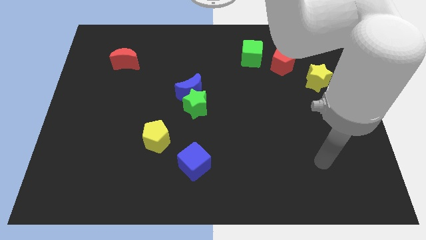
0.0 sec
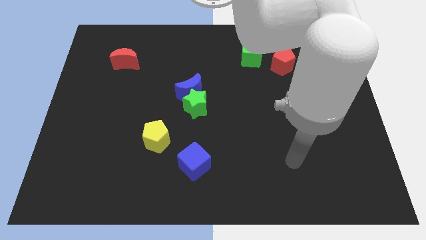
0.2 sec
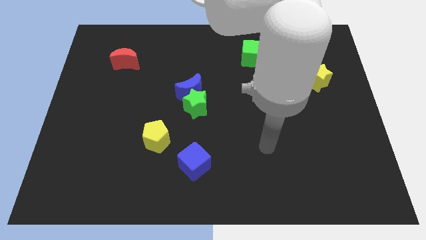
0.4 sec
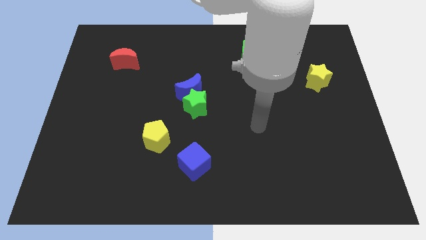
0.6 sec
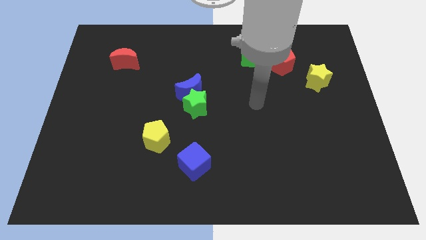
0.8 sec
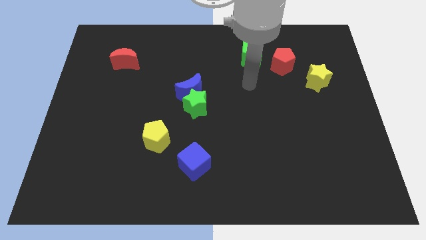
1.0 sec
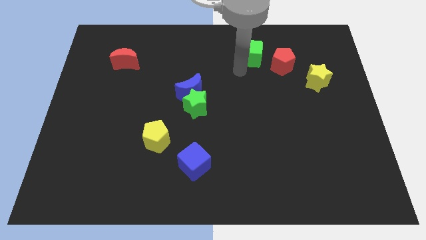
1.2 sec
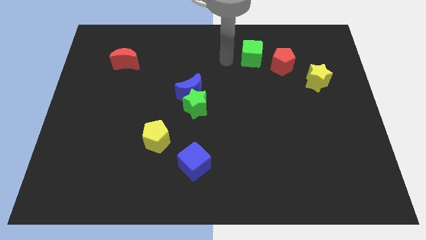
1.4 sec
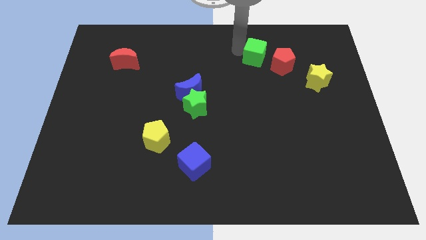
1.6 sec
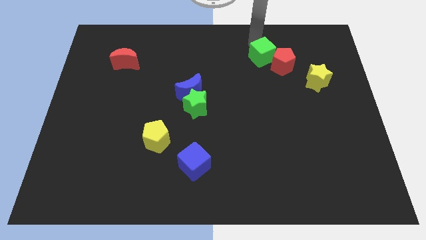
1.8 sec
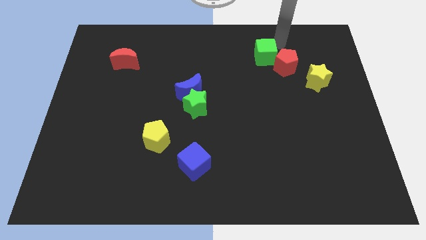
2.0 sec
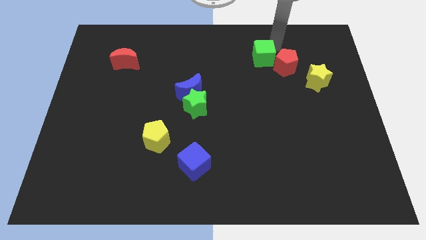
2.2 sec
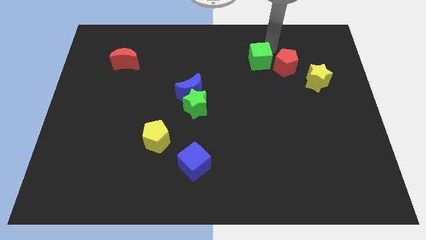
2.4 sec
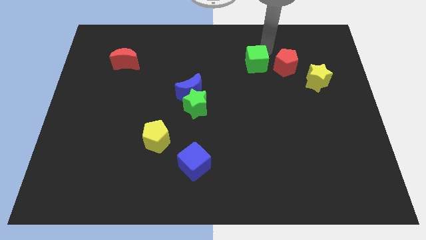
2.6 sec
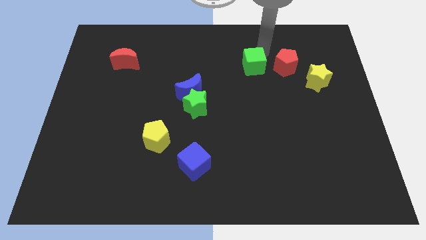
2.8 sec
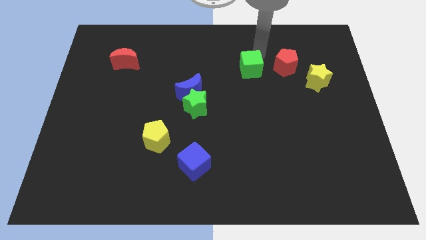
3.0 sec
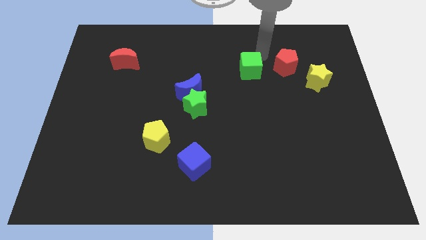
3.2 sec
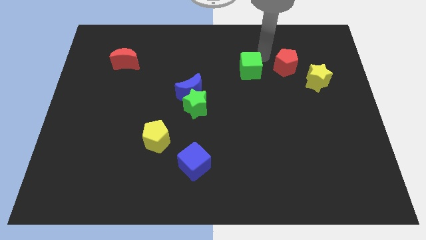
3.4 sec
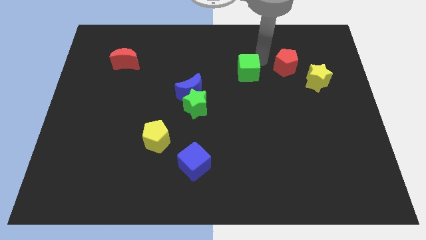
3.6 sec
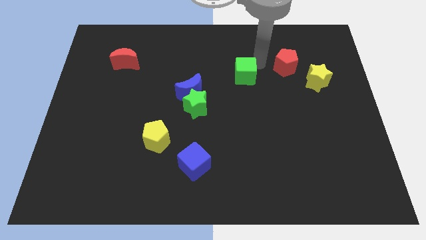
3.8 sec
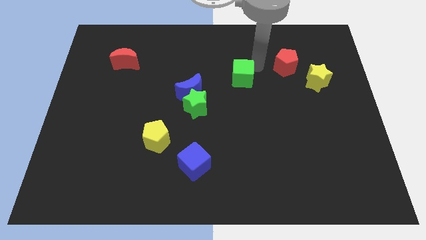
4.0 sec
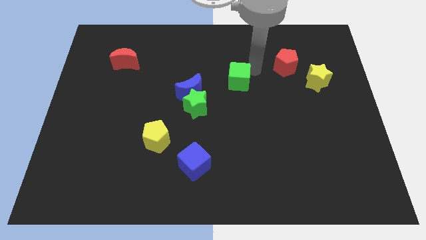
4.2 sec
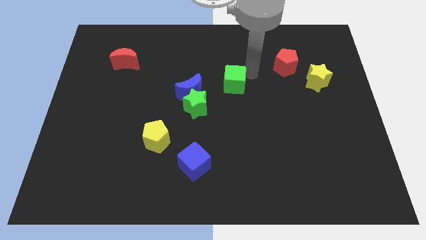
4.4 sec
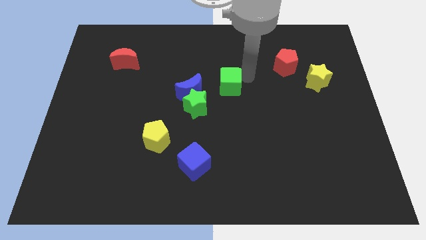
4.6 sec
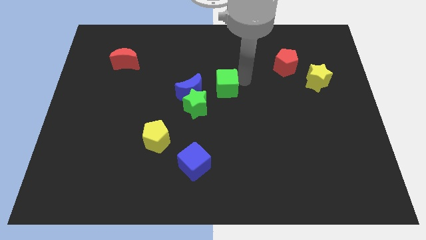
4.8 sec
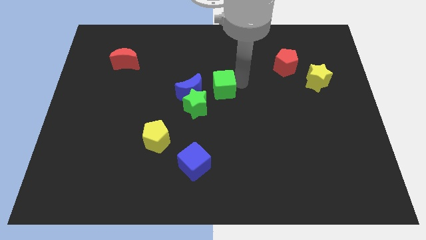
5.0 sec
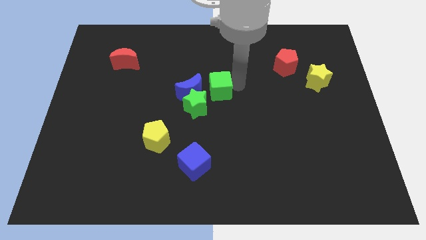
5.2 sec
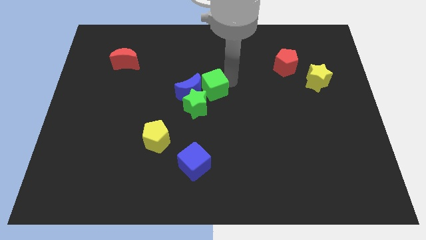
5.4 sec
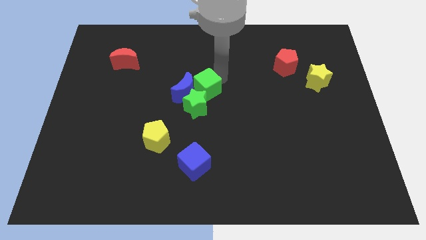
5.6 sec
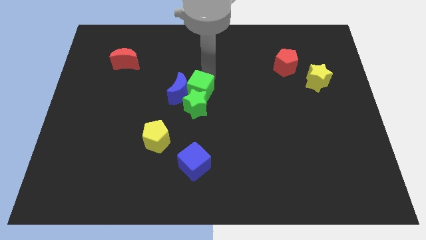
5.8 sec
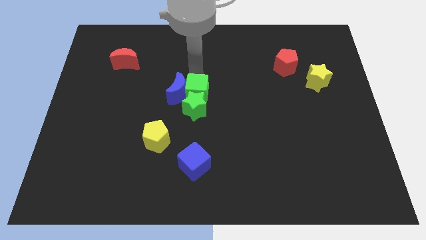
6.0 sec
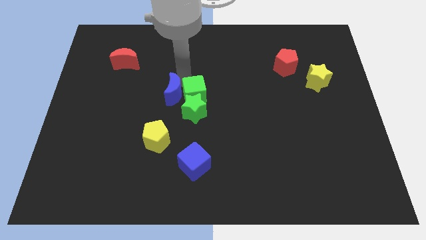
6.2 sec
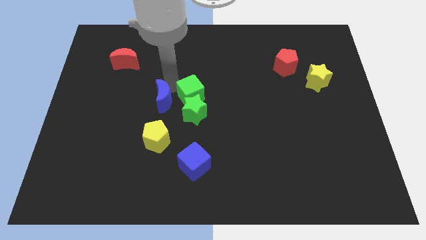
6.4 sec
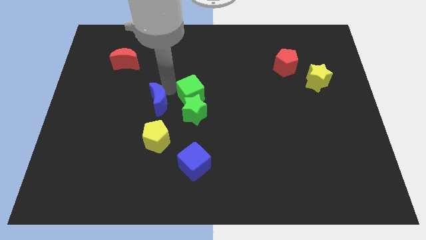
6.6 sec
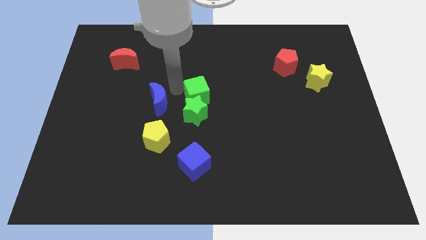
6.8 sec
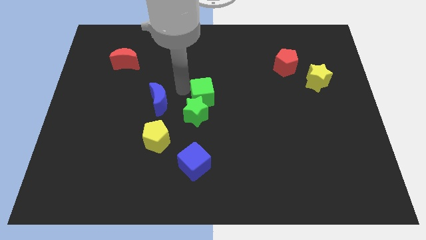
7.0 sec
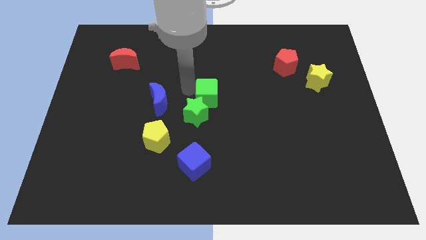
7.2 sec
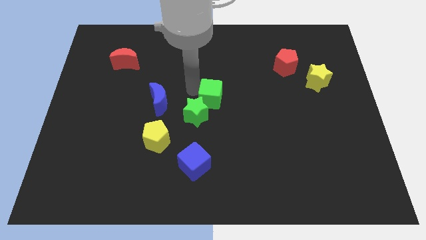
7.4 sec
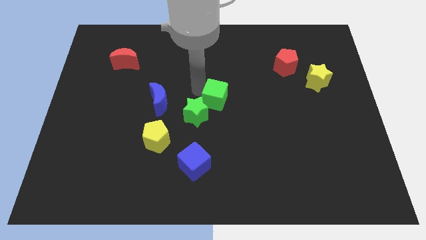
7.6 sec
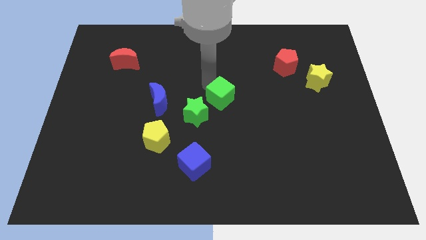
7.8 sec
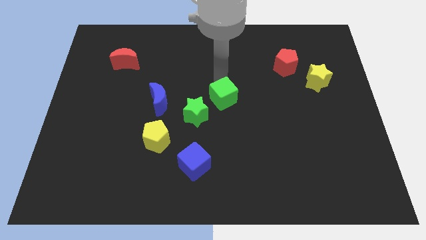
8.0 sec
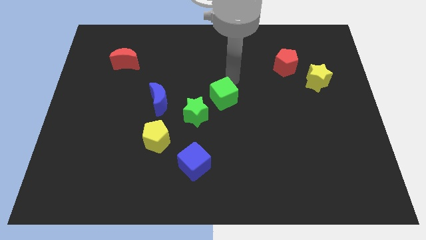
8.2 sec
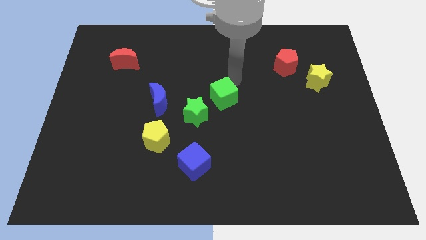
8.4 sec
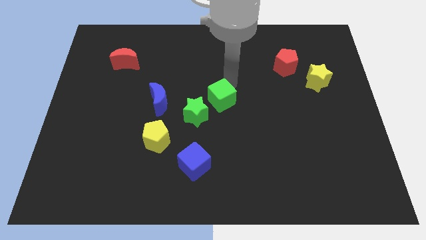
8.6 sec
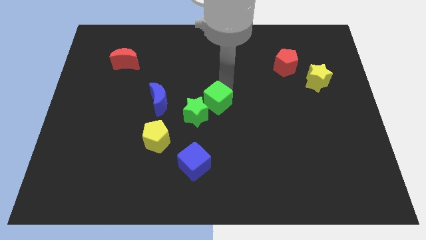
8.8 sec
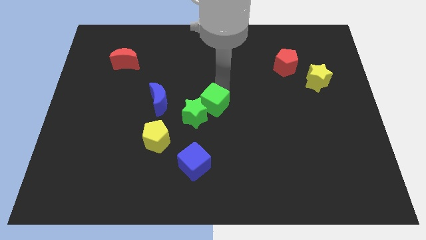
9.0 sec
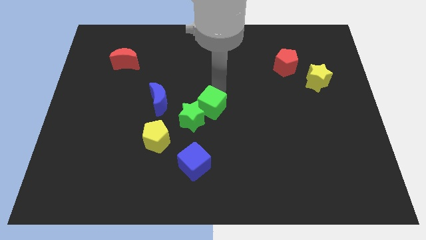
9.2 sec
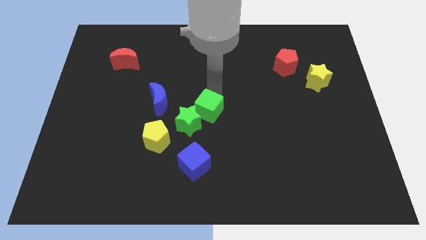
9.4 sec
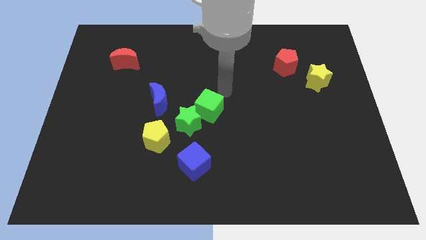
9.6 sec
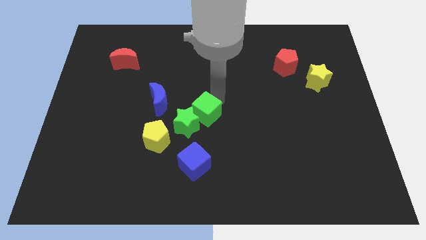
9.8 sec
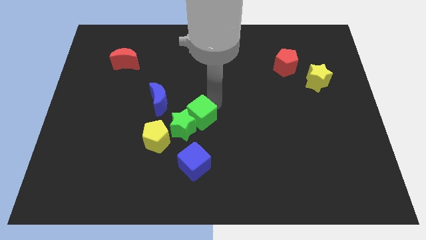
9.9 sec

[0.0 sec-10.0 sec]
move the green cube to the top right side of the yellow pentagon

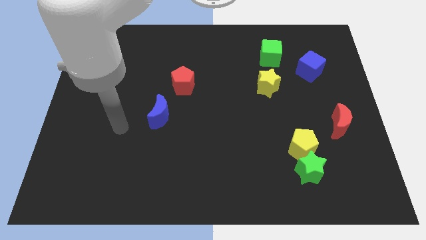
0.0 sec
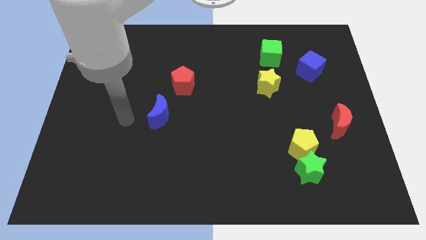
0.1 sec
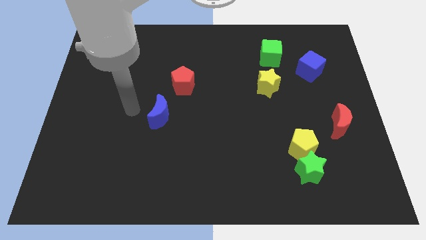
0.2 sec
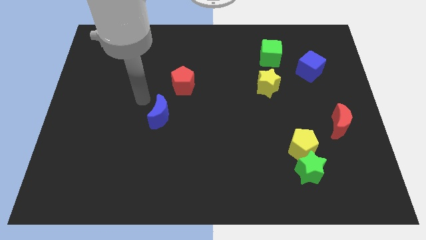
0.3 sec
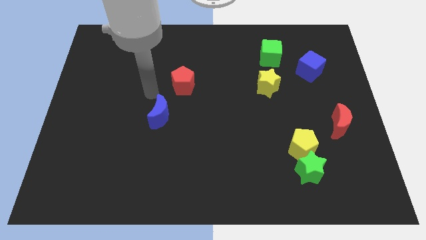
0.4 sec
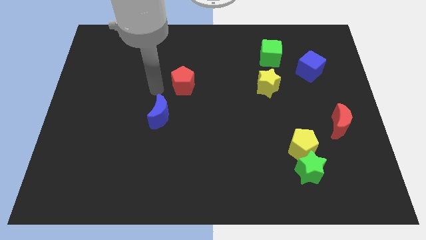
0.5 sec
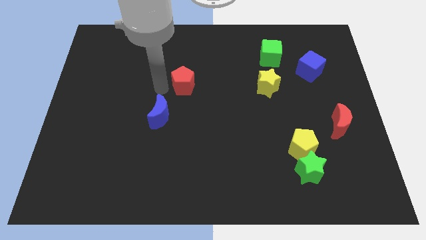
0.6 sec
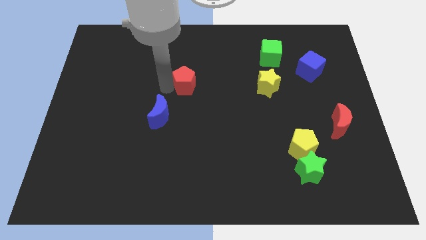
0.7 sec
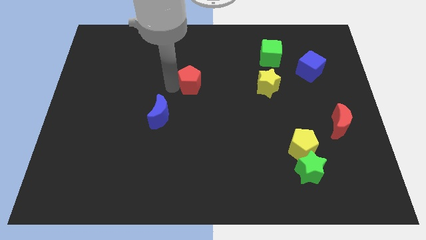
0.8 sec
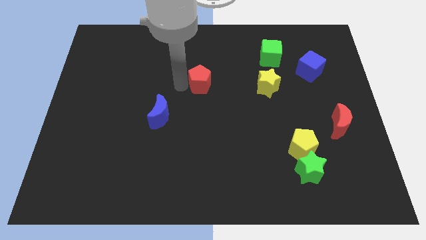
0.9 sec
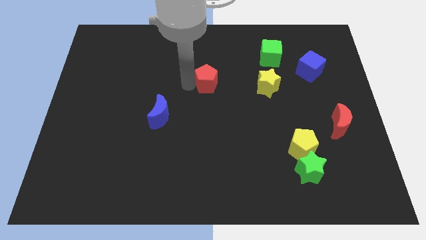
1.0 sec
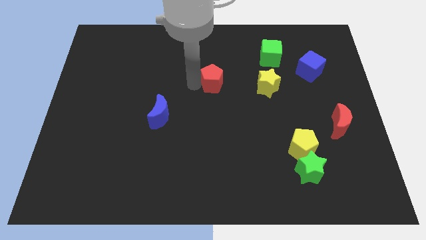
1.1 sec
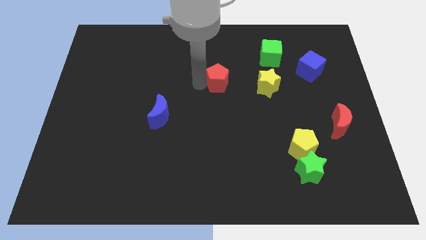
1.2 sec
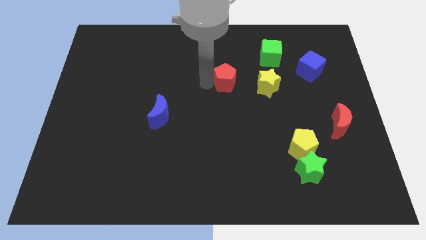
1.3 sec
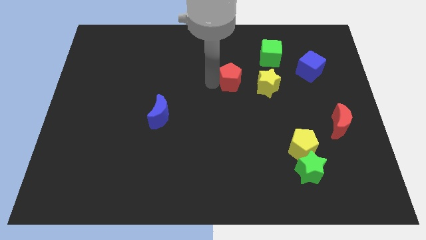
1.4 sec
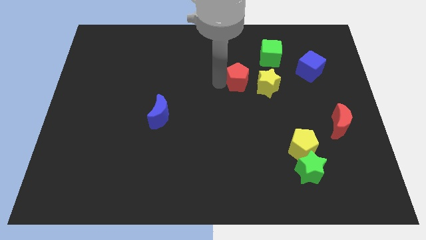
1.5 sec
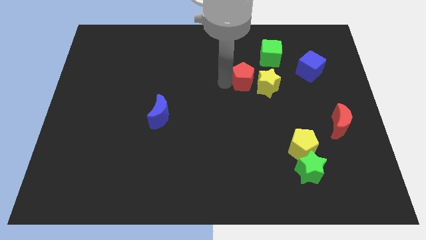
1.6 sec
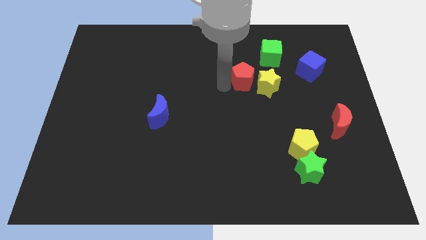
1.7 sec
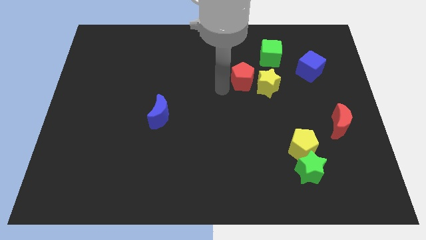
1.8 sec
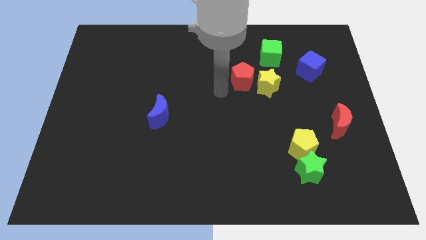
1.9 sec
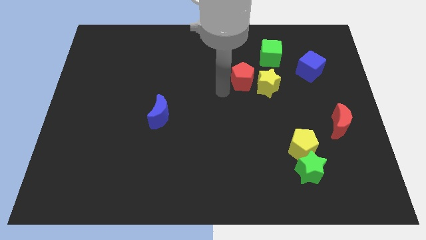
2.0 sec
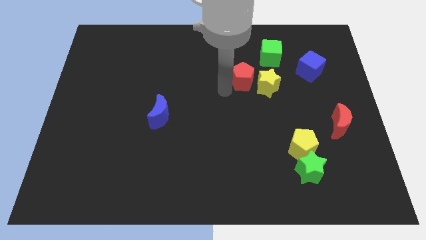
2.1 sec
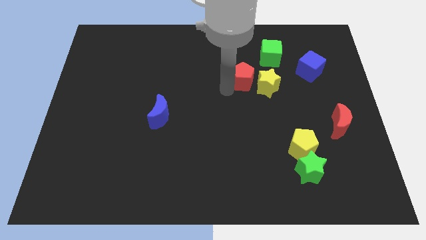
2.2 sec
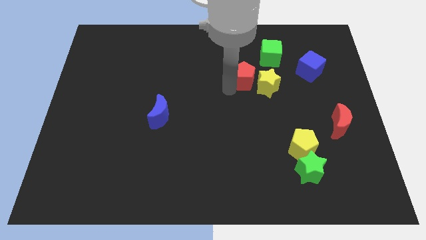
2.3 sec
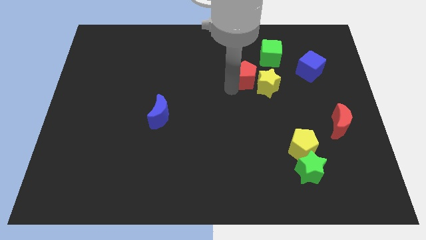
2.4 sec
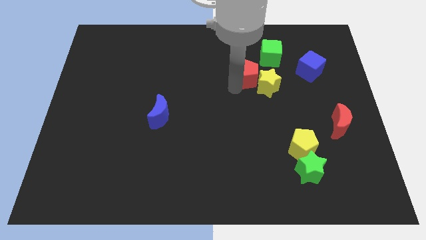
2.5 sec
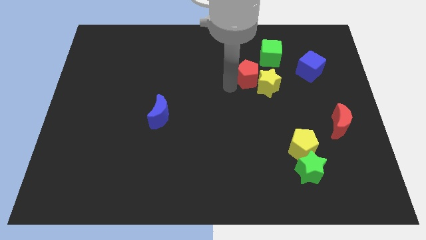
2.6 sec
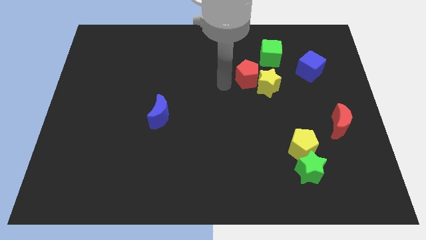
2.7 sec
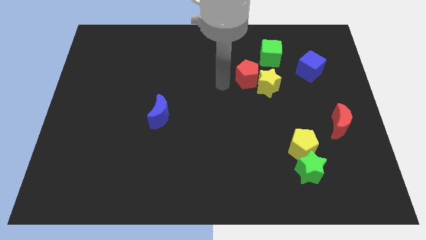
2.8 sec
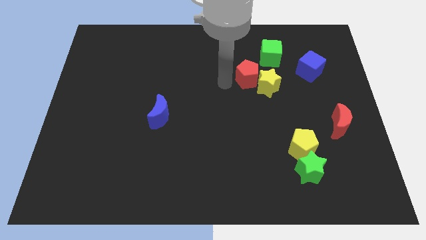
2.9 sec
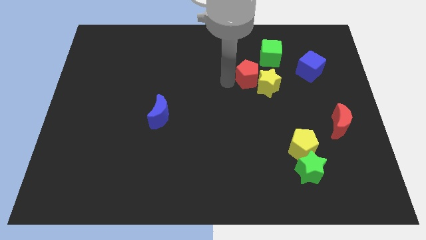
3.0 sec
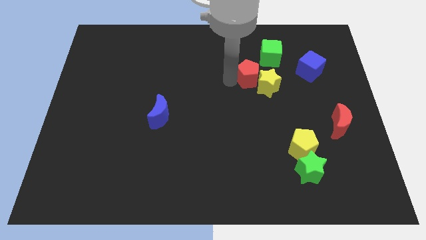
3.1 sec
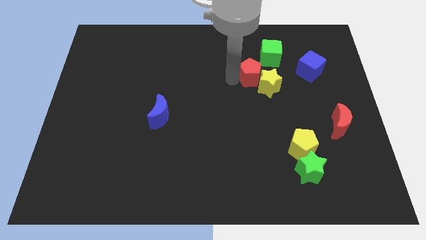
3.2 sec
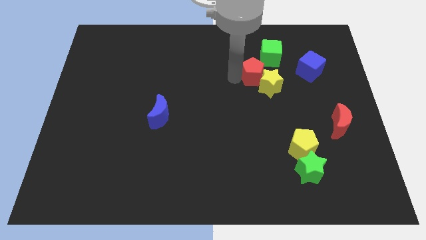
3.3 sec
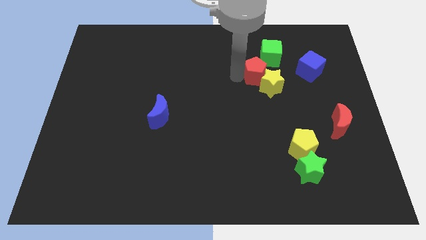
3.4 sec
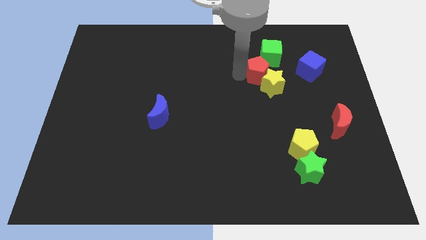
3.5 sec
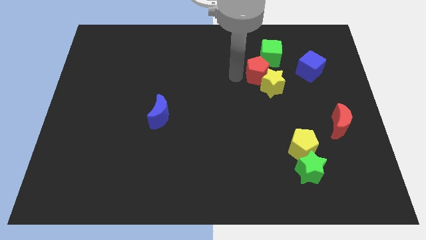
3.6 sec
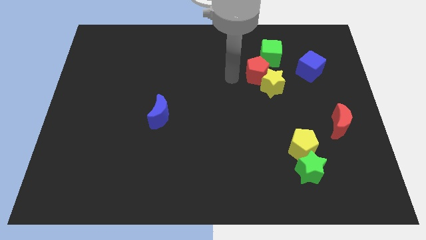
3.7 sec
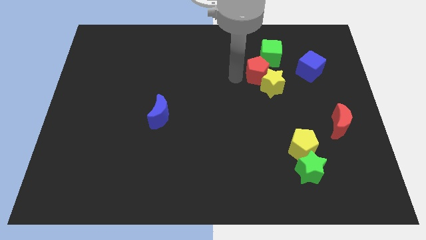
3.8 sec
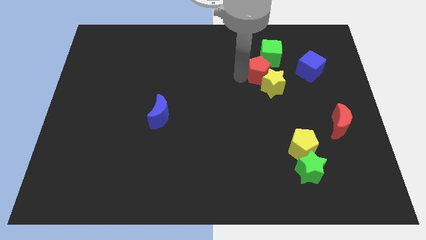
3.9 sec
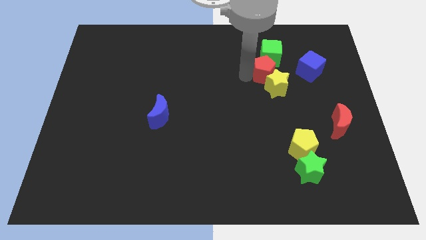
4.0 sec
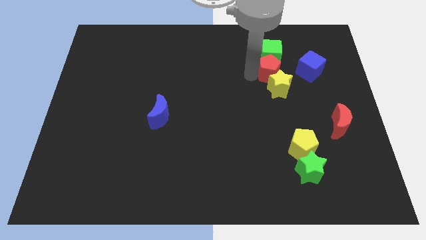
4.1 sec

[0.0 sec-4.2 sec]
put the red pentagon diagonally down and to the right of the green cube
